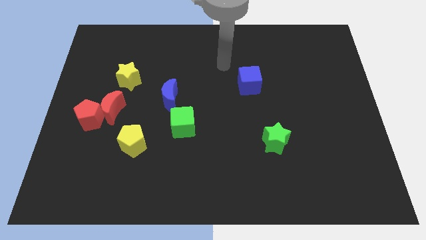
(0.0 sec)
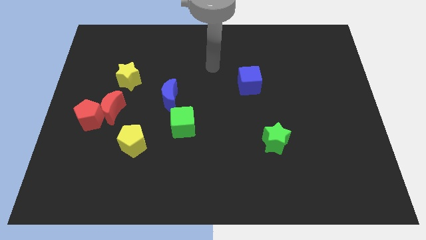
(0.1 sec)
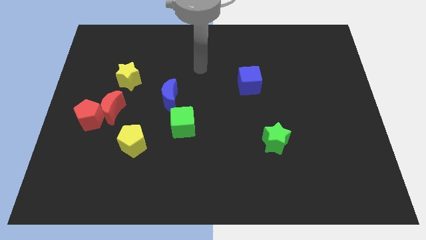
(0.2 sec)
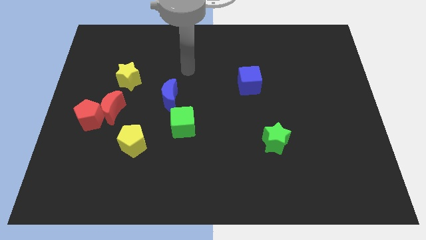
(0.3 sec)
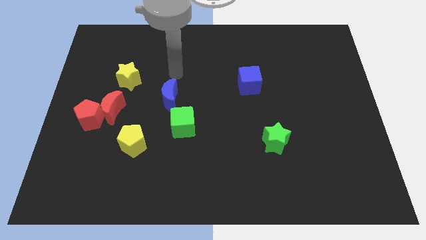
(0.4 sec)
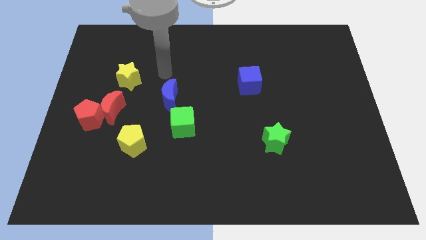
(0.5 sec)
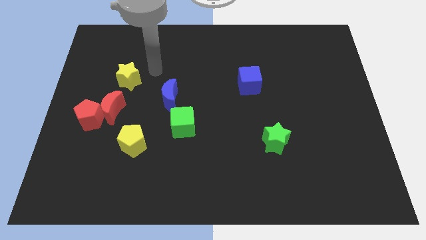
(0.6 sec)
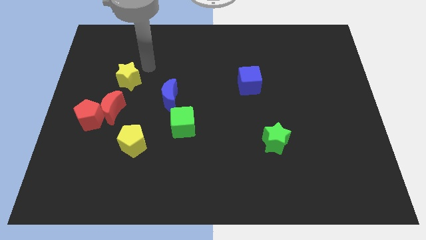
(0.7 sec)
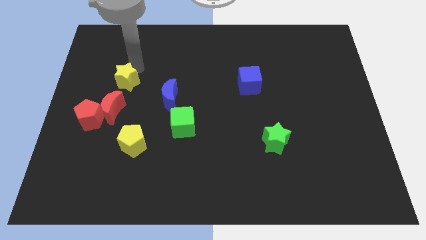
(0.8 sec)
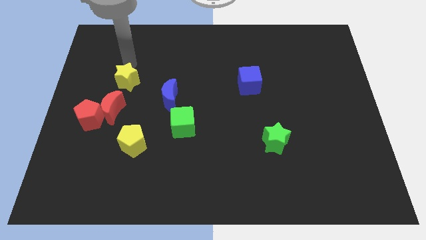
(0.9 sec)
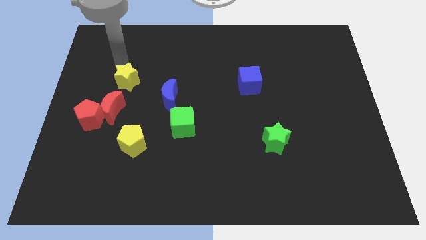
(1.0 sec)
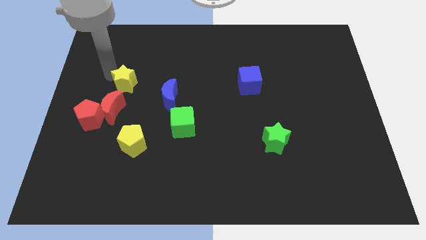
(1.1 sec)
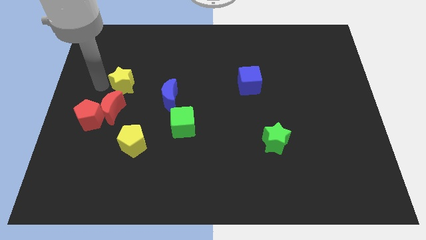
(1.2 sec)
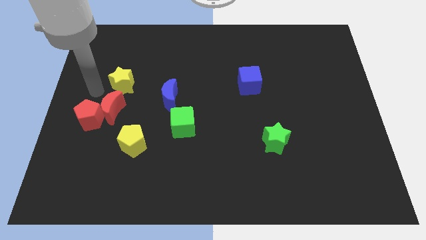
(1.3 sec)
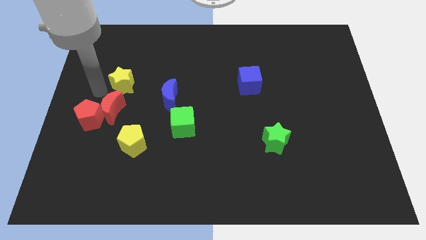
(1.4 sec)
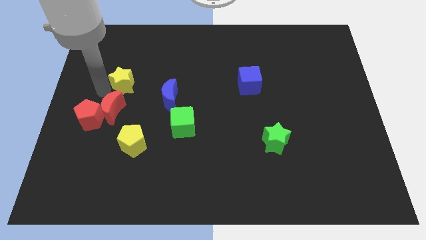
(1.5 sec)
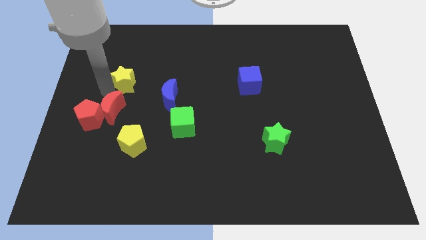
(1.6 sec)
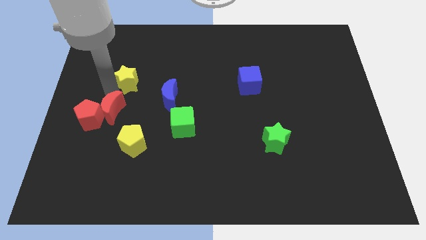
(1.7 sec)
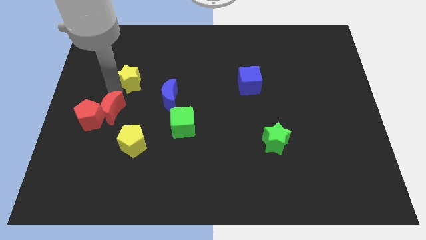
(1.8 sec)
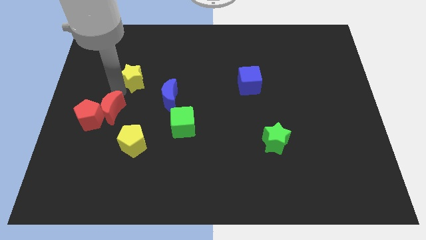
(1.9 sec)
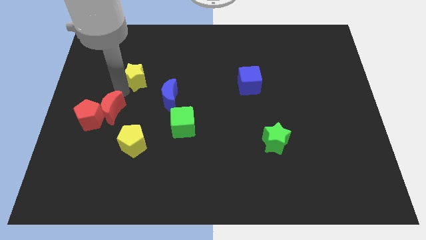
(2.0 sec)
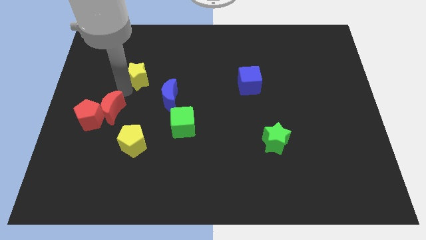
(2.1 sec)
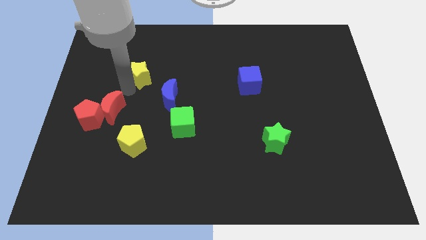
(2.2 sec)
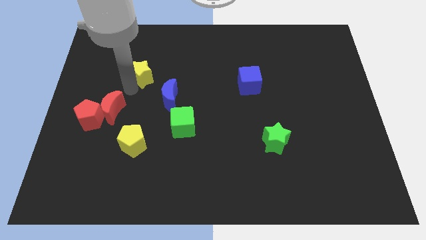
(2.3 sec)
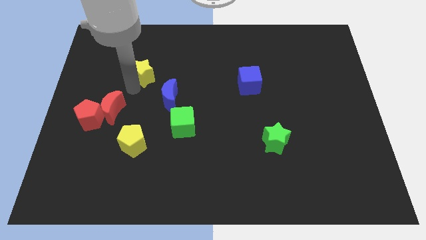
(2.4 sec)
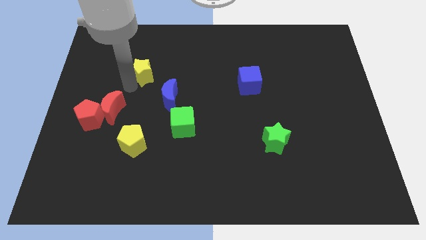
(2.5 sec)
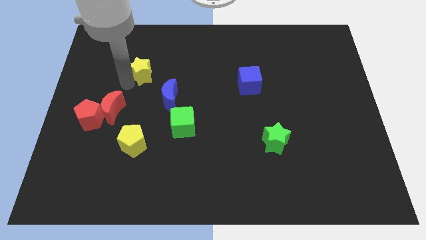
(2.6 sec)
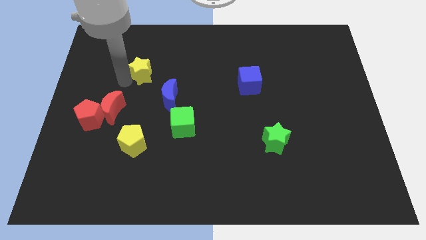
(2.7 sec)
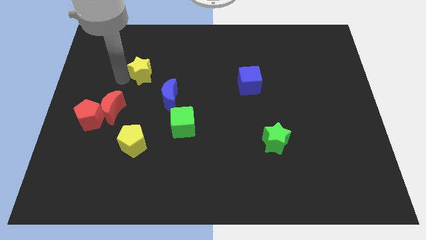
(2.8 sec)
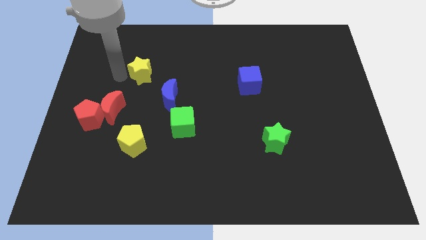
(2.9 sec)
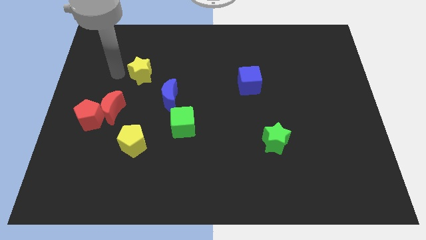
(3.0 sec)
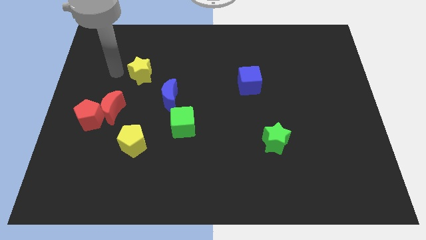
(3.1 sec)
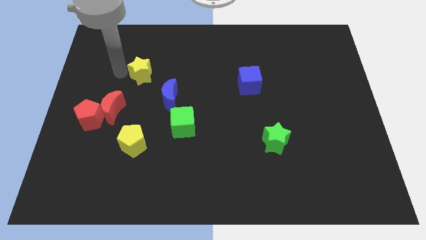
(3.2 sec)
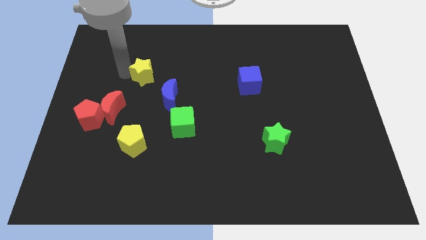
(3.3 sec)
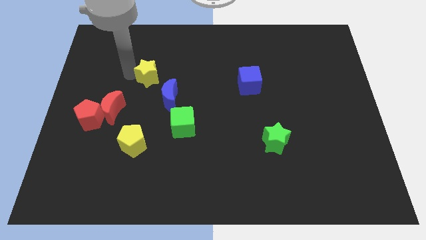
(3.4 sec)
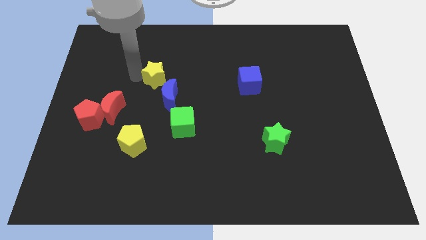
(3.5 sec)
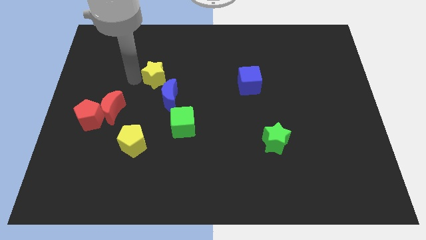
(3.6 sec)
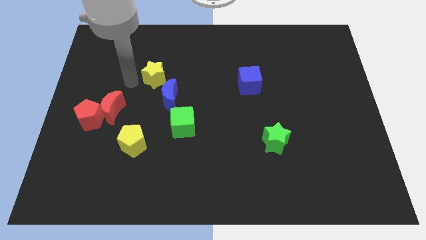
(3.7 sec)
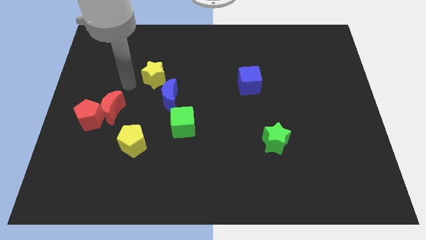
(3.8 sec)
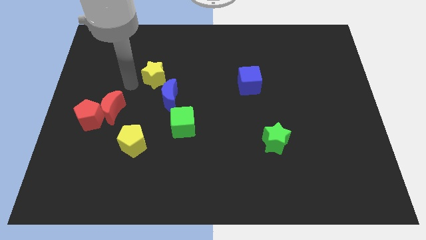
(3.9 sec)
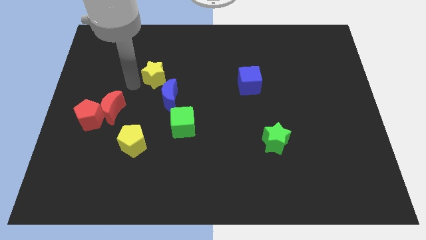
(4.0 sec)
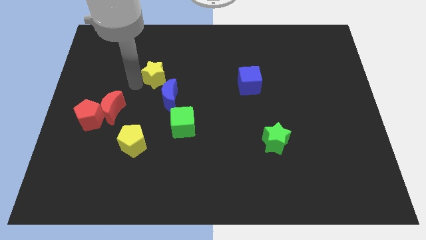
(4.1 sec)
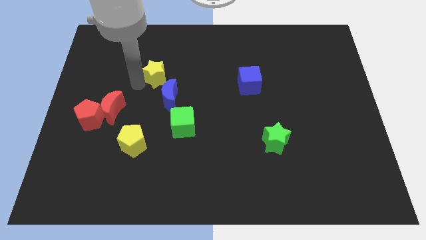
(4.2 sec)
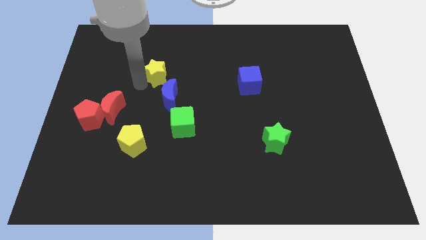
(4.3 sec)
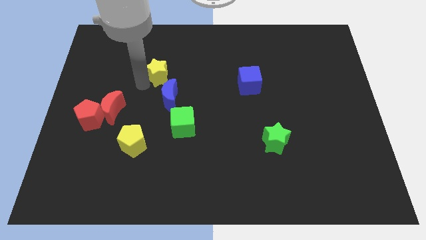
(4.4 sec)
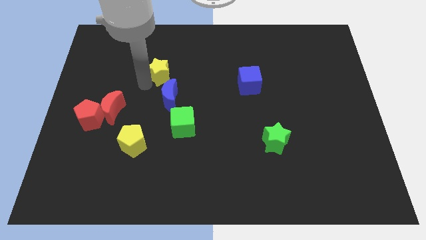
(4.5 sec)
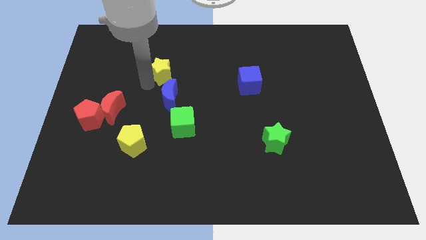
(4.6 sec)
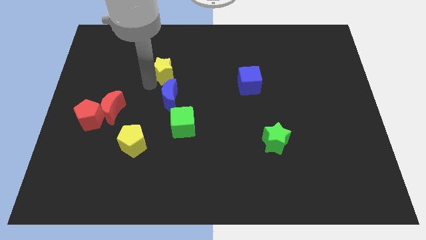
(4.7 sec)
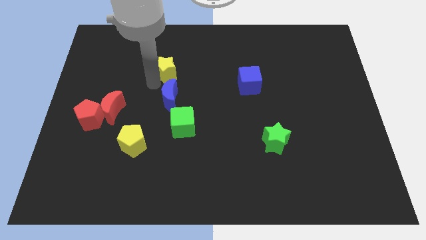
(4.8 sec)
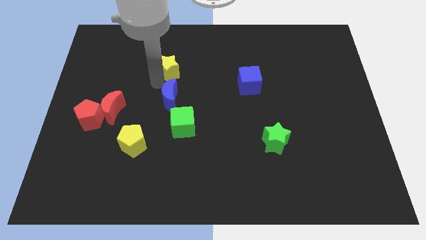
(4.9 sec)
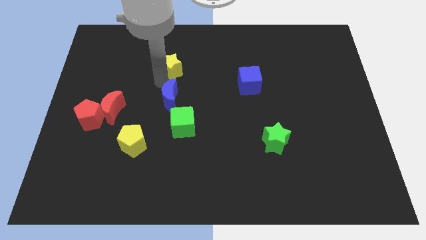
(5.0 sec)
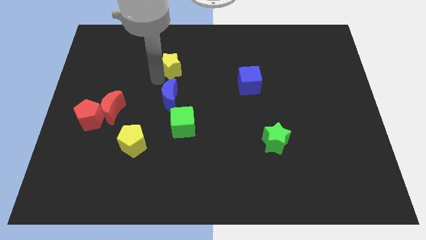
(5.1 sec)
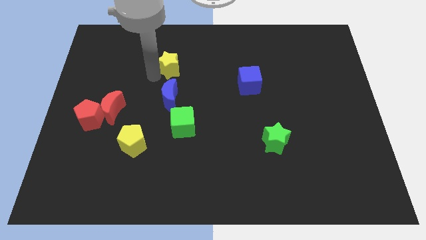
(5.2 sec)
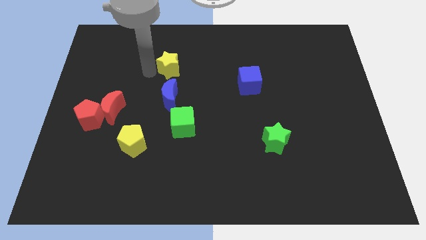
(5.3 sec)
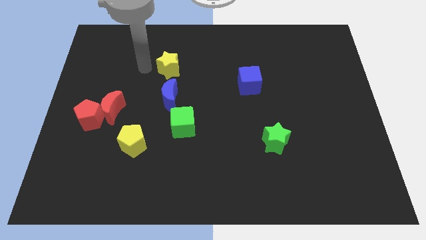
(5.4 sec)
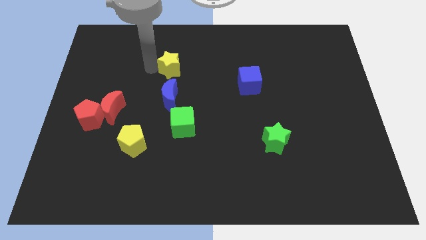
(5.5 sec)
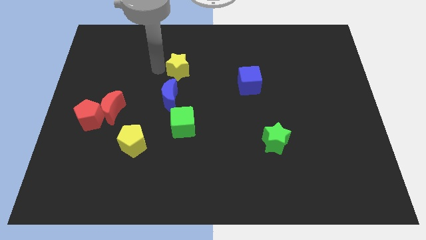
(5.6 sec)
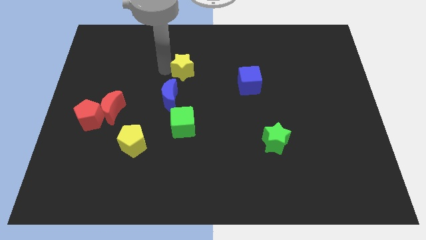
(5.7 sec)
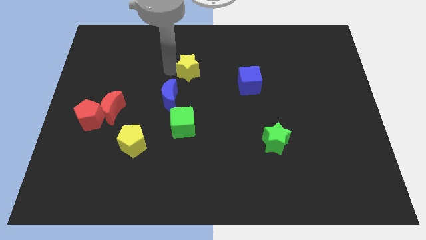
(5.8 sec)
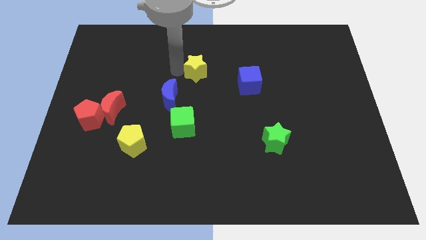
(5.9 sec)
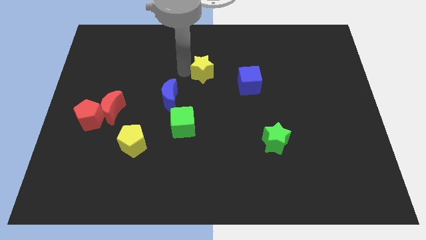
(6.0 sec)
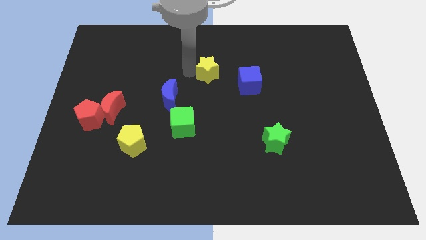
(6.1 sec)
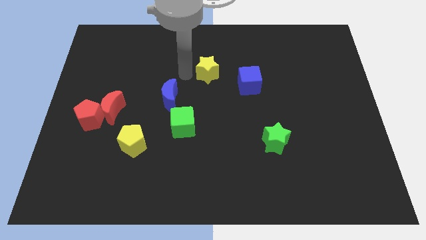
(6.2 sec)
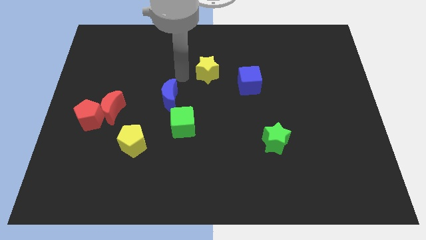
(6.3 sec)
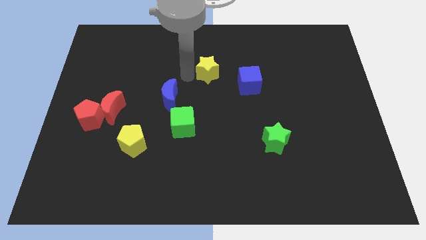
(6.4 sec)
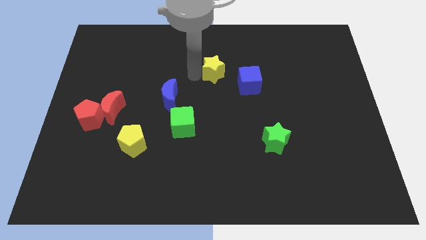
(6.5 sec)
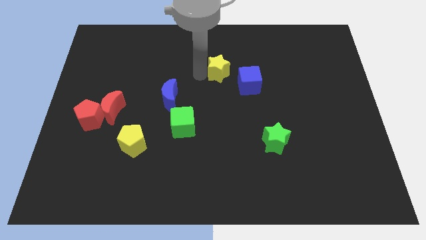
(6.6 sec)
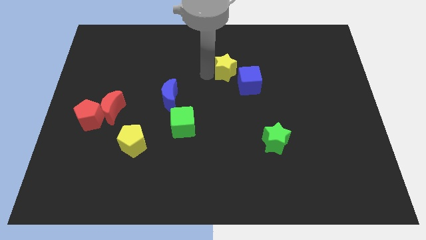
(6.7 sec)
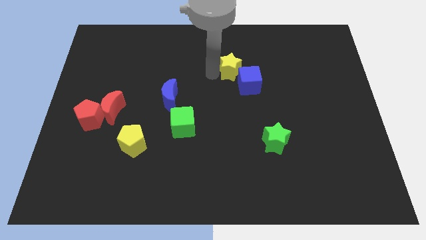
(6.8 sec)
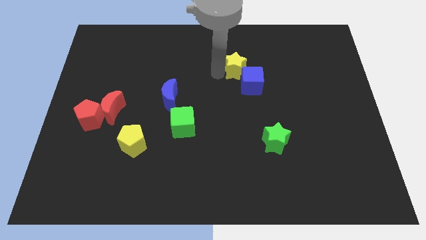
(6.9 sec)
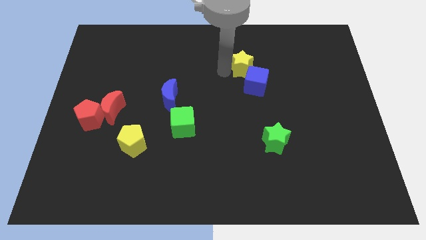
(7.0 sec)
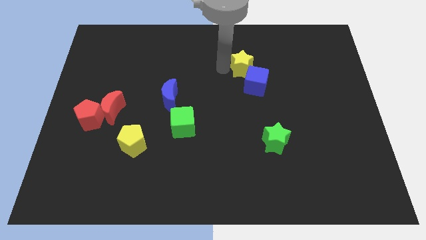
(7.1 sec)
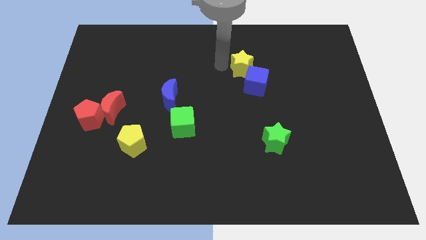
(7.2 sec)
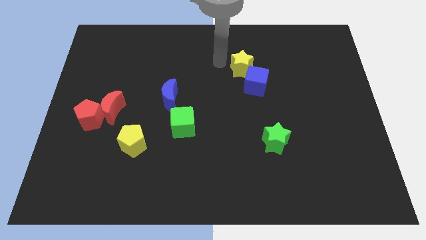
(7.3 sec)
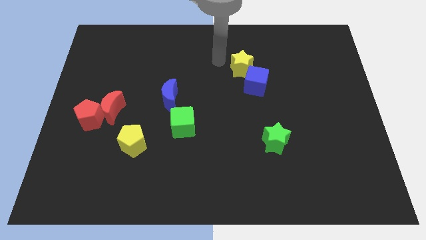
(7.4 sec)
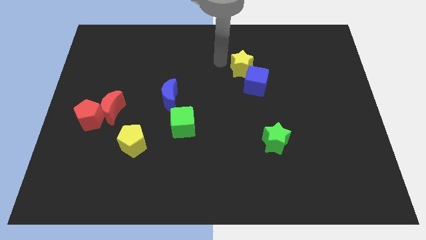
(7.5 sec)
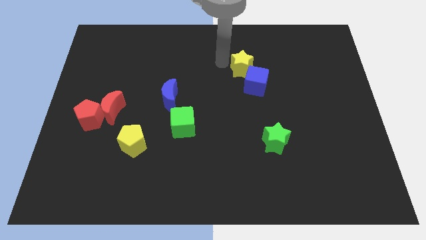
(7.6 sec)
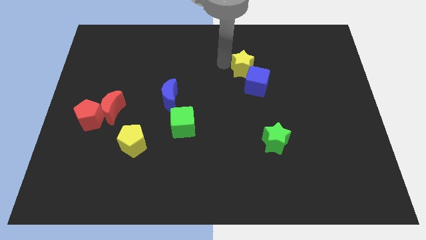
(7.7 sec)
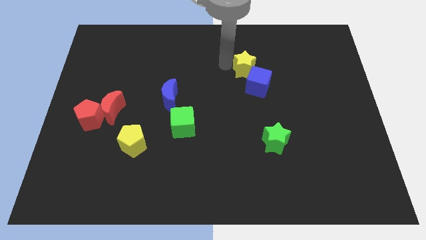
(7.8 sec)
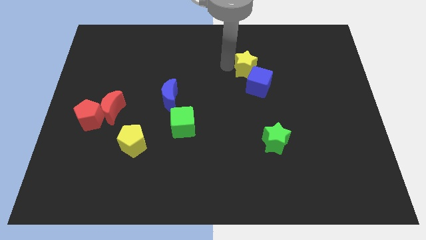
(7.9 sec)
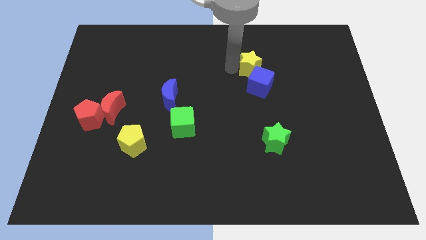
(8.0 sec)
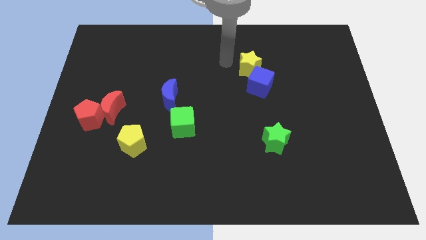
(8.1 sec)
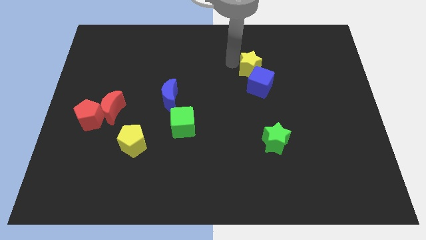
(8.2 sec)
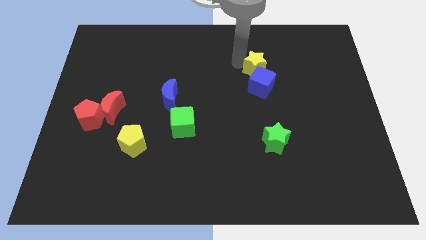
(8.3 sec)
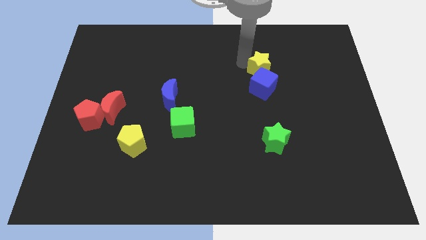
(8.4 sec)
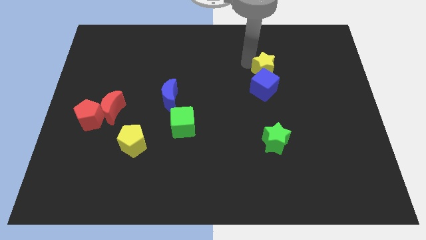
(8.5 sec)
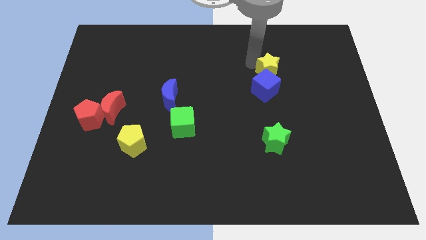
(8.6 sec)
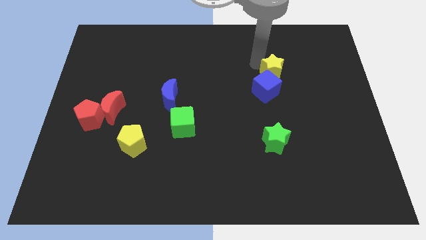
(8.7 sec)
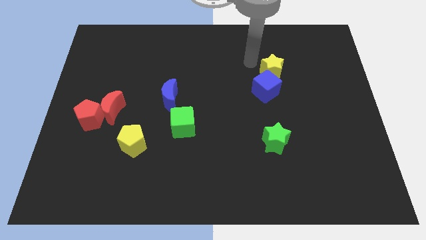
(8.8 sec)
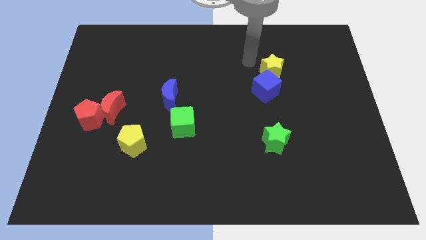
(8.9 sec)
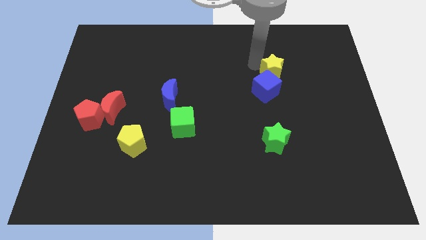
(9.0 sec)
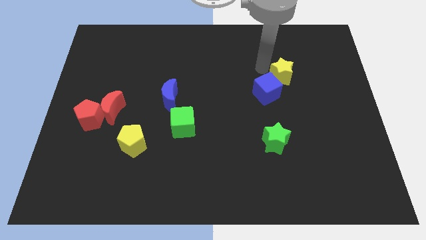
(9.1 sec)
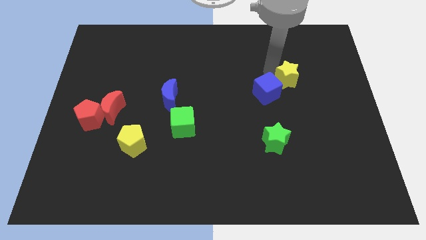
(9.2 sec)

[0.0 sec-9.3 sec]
move the yellow star right of the blue cube
